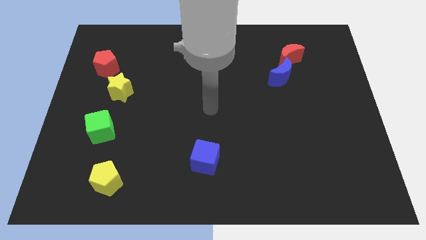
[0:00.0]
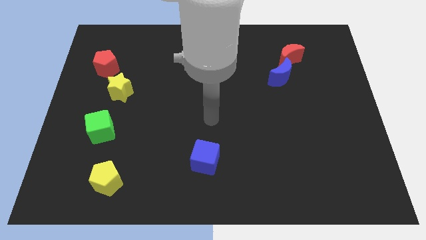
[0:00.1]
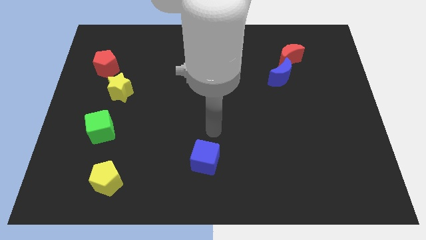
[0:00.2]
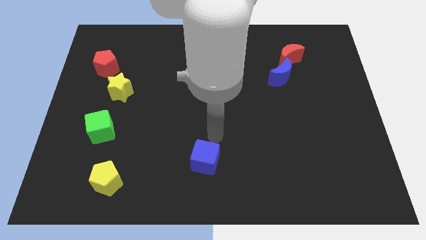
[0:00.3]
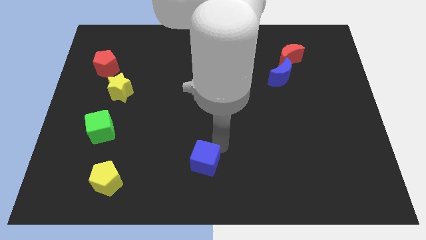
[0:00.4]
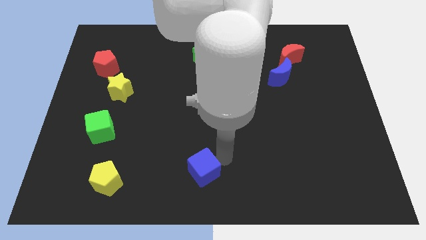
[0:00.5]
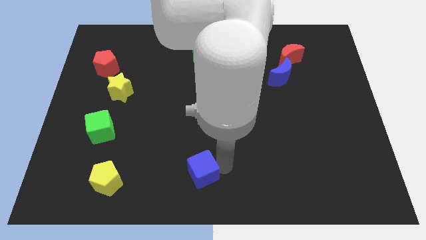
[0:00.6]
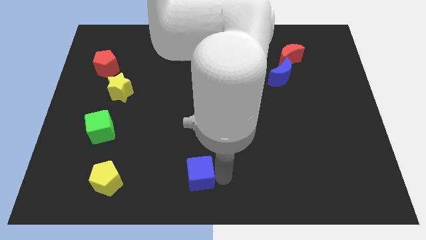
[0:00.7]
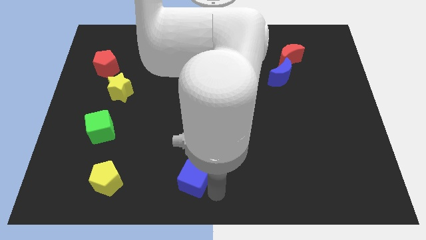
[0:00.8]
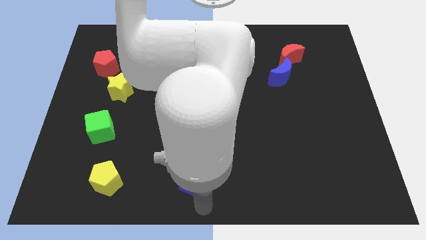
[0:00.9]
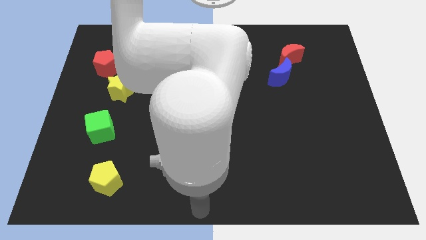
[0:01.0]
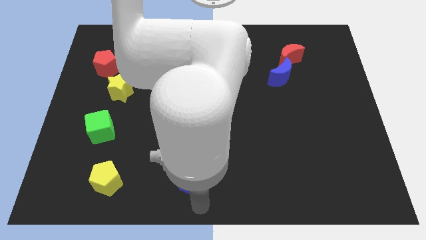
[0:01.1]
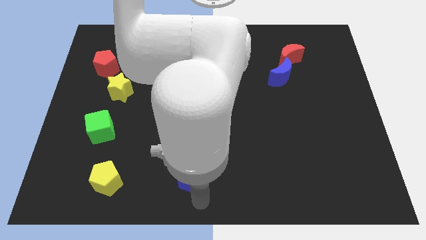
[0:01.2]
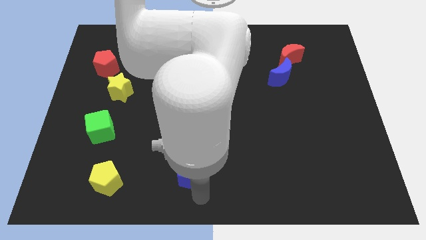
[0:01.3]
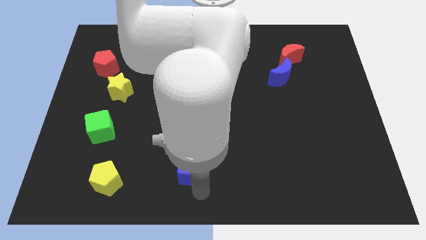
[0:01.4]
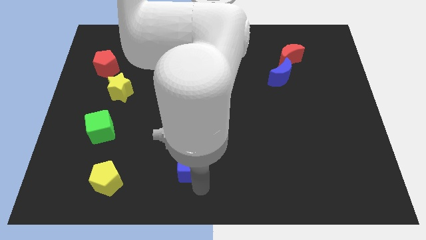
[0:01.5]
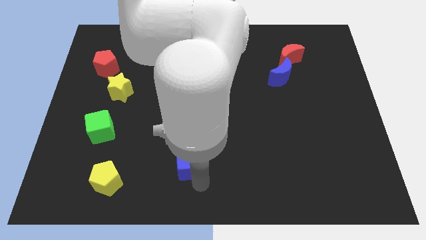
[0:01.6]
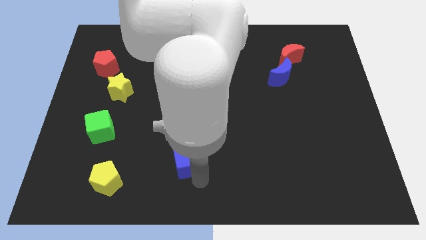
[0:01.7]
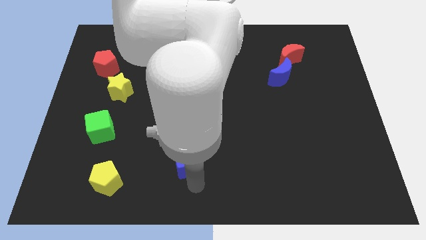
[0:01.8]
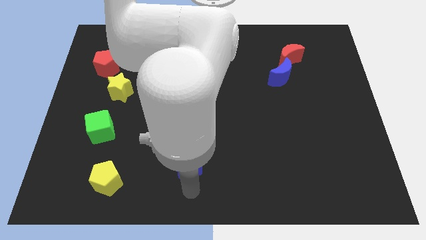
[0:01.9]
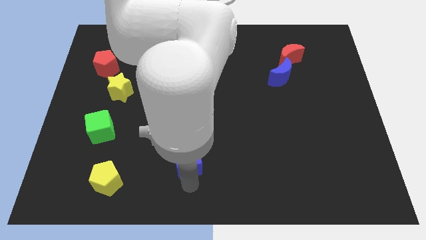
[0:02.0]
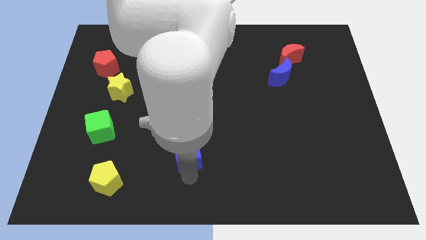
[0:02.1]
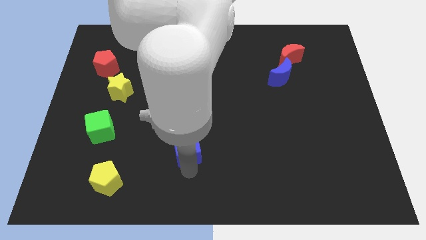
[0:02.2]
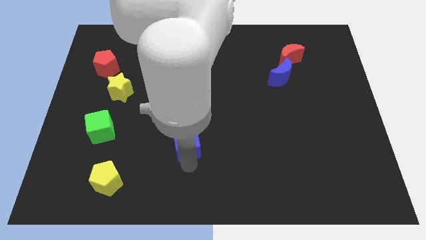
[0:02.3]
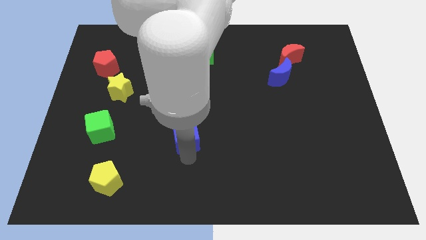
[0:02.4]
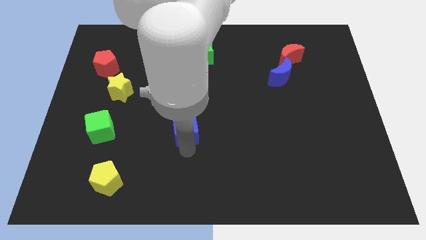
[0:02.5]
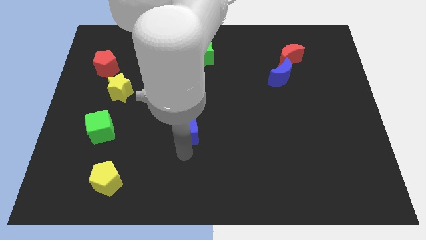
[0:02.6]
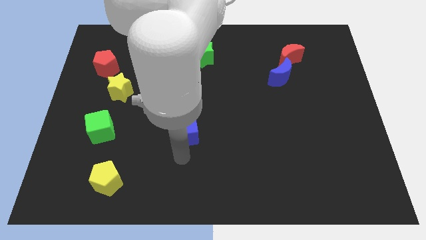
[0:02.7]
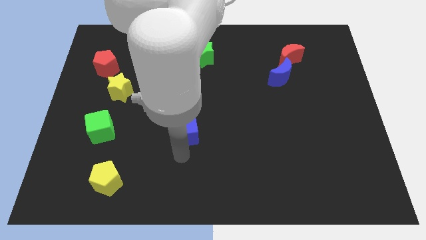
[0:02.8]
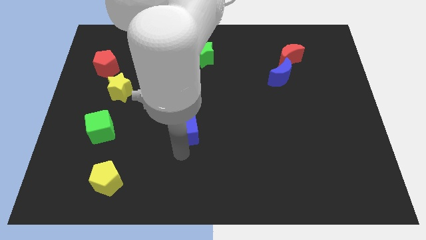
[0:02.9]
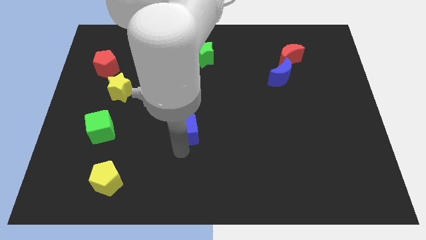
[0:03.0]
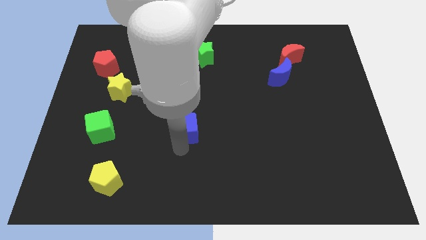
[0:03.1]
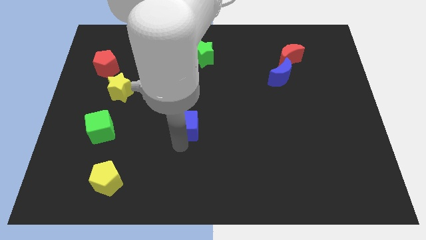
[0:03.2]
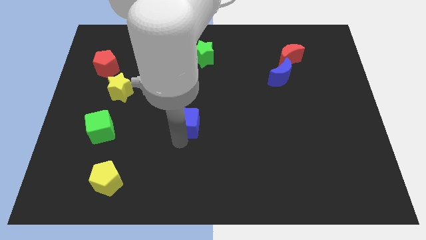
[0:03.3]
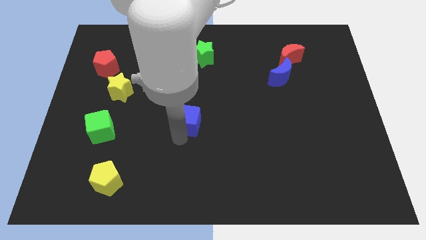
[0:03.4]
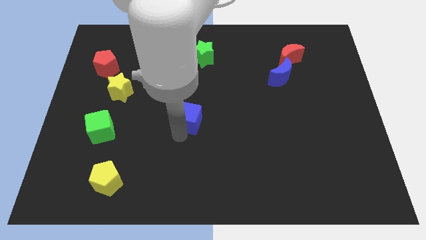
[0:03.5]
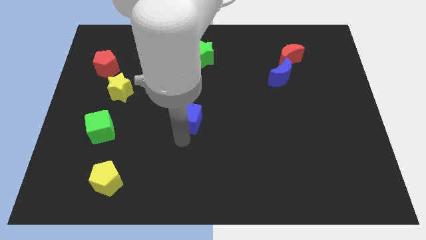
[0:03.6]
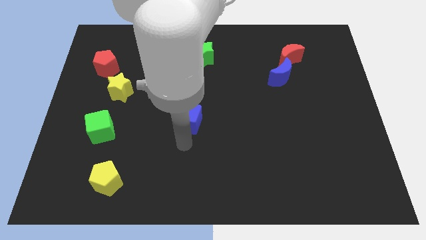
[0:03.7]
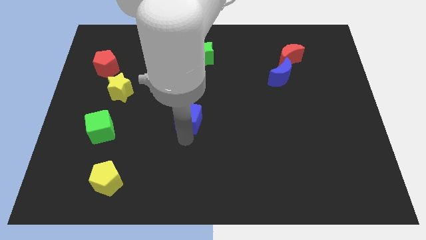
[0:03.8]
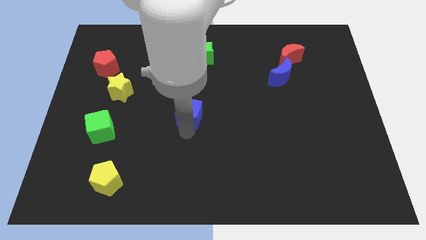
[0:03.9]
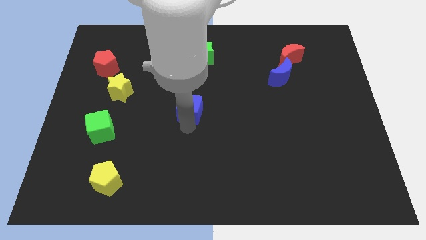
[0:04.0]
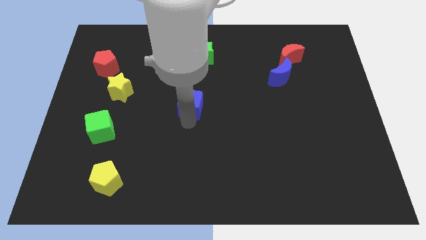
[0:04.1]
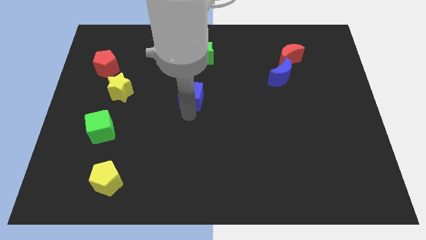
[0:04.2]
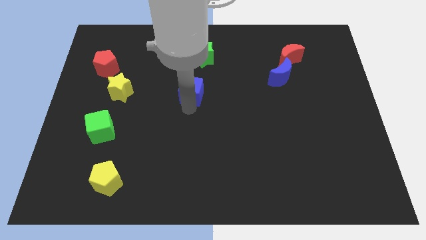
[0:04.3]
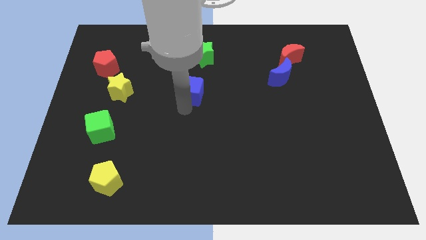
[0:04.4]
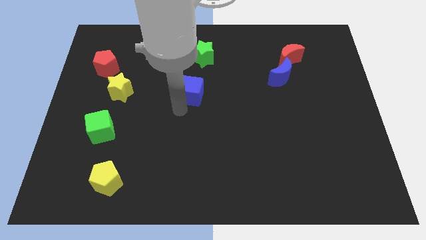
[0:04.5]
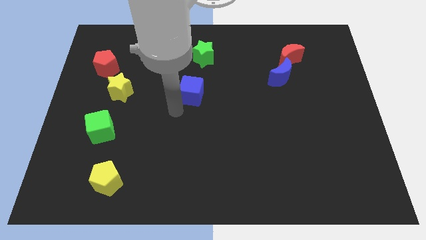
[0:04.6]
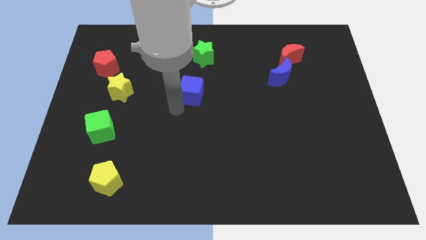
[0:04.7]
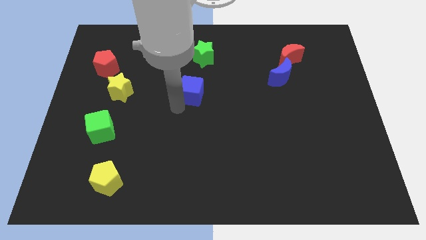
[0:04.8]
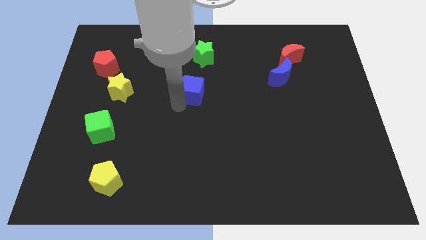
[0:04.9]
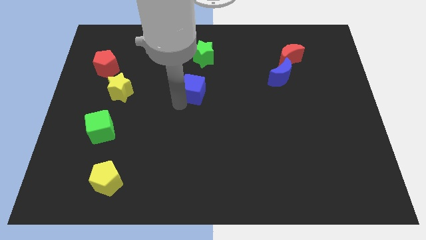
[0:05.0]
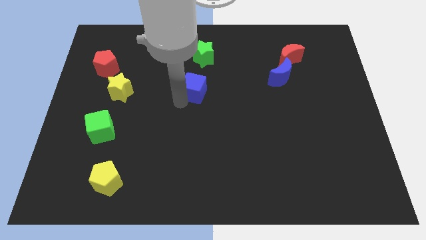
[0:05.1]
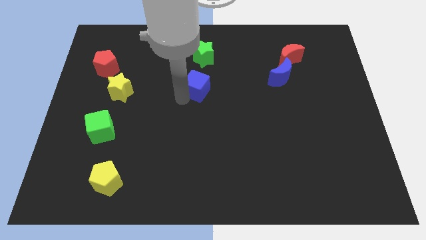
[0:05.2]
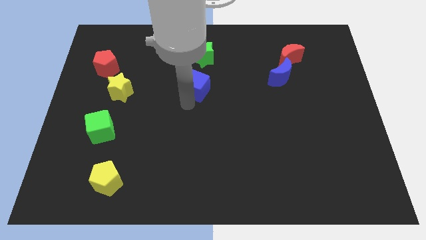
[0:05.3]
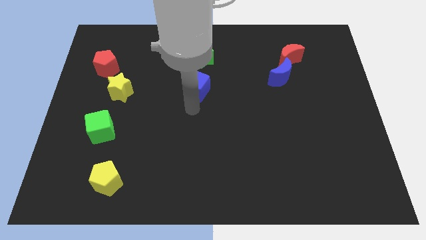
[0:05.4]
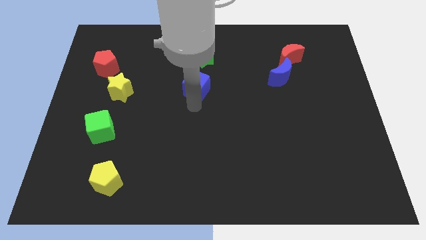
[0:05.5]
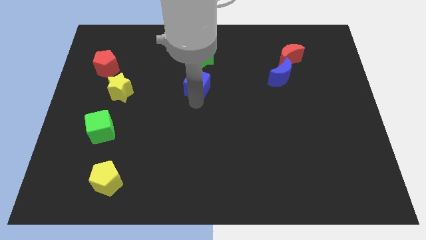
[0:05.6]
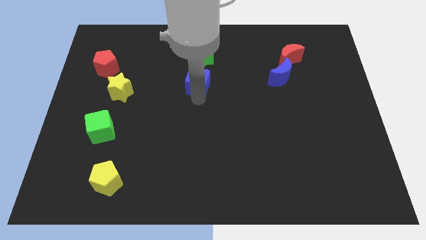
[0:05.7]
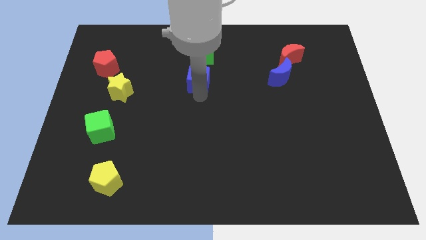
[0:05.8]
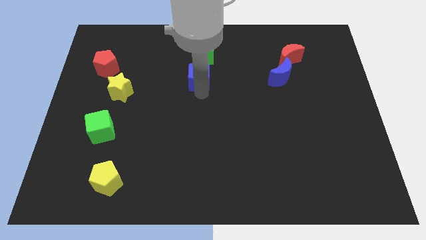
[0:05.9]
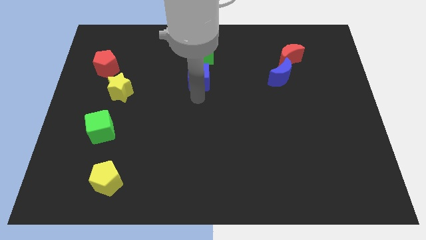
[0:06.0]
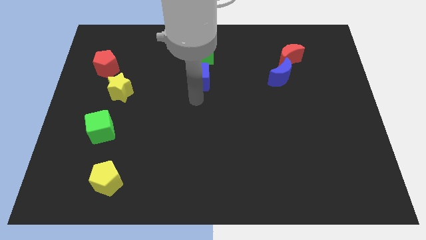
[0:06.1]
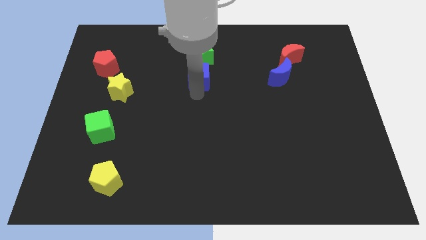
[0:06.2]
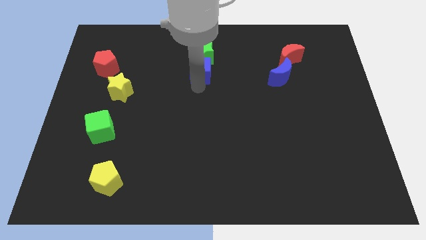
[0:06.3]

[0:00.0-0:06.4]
push the blue cube towards the green star

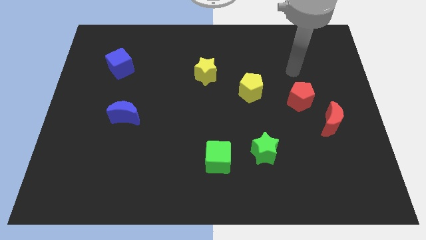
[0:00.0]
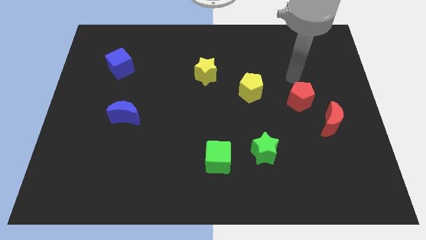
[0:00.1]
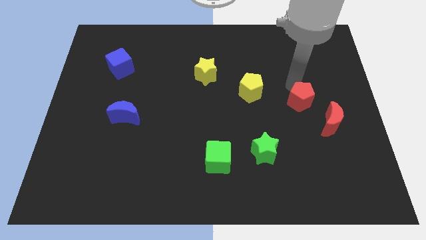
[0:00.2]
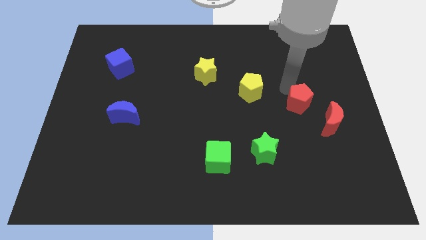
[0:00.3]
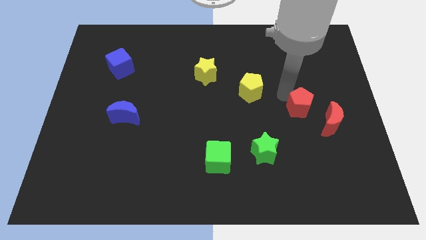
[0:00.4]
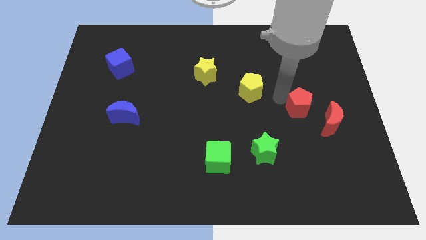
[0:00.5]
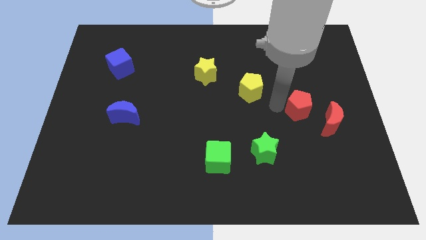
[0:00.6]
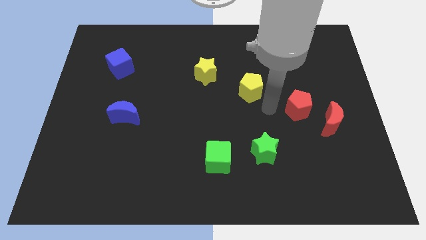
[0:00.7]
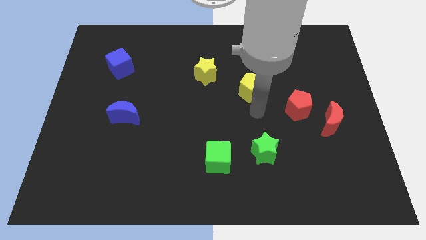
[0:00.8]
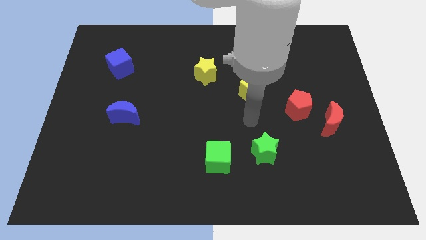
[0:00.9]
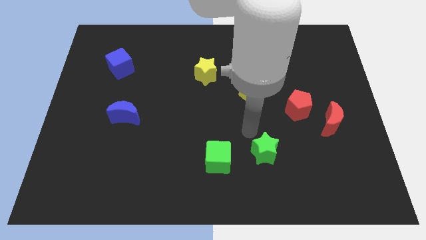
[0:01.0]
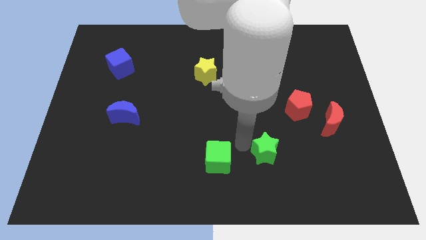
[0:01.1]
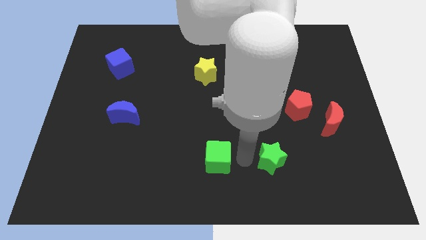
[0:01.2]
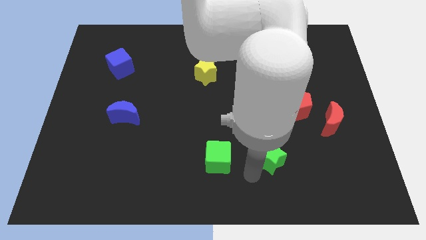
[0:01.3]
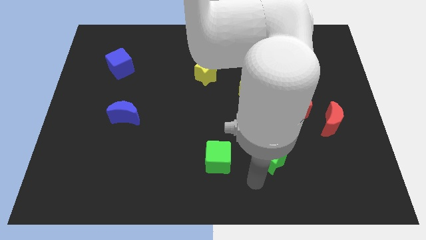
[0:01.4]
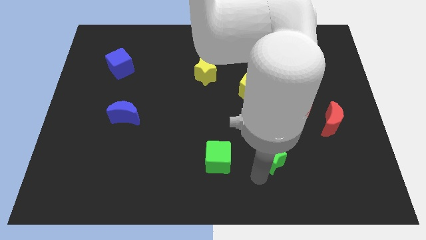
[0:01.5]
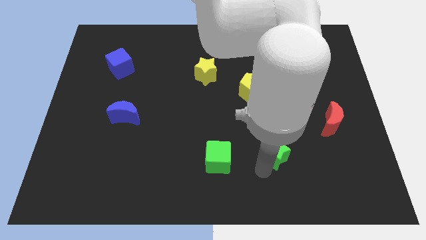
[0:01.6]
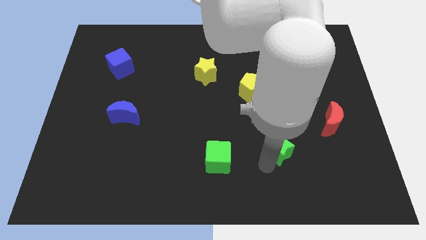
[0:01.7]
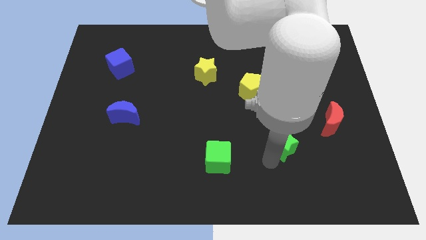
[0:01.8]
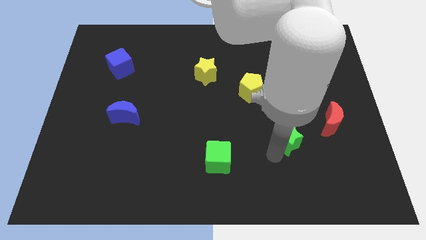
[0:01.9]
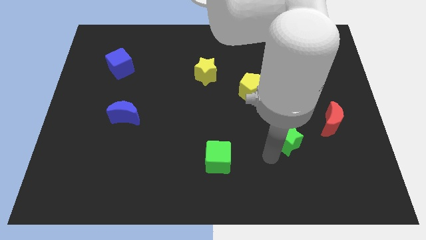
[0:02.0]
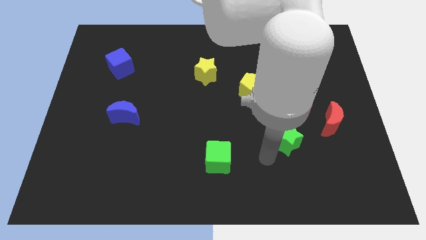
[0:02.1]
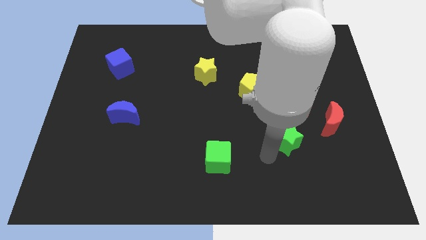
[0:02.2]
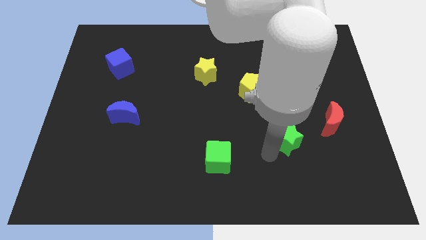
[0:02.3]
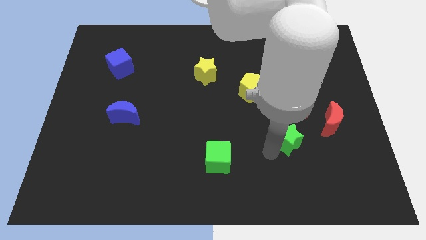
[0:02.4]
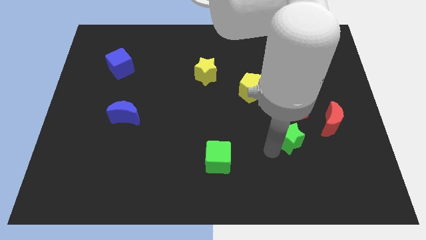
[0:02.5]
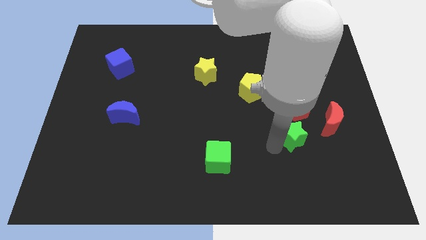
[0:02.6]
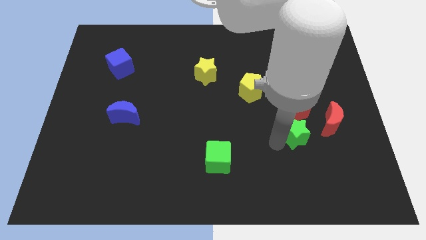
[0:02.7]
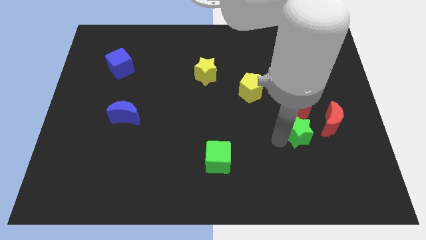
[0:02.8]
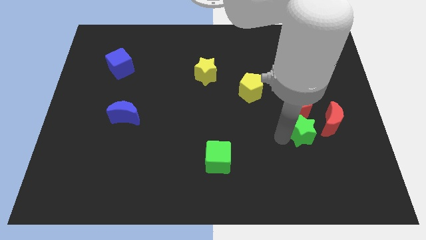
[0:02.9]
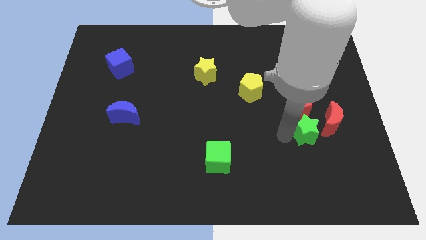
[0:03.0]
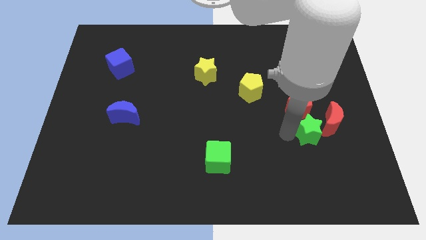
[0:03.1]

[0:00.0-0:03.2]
move the green star next to the red moon
